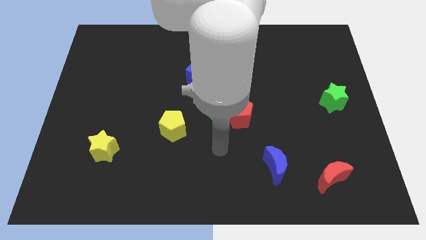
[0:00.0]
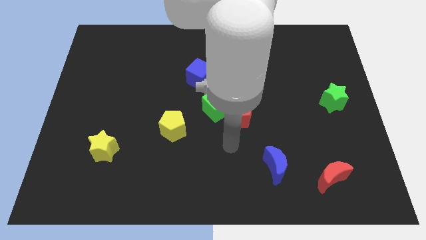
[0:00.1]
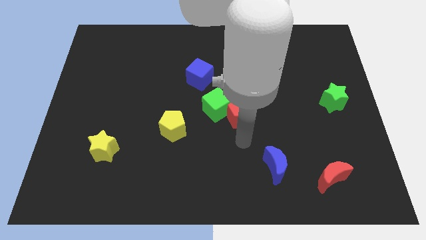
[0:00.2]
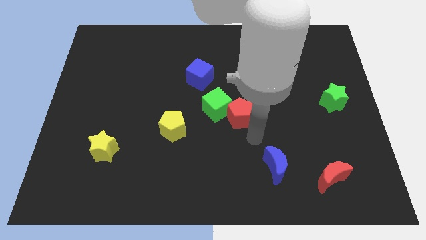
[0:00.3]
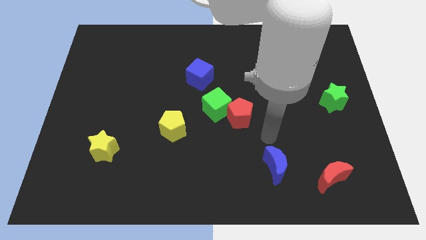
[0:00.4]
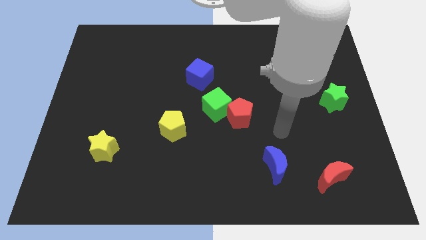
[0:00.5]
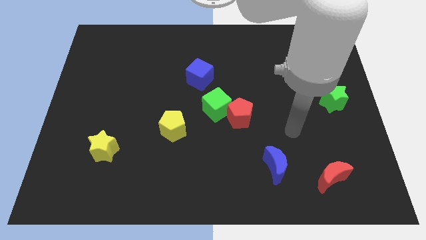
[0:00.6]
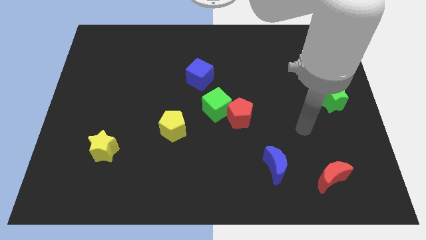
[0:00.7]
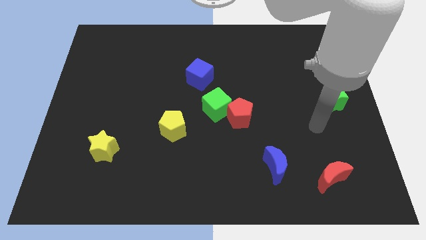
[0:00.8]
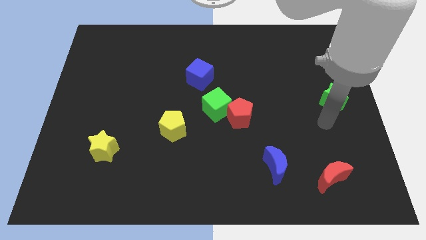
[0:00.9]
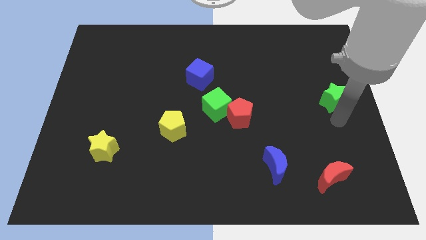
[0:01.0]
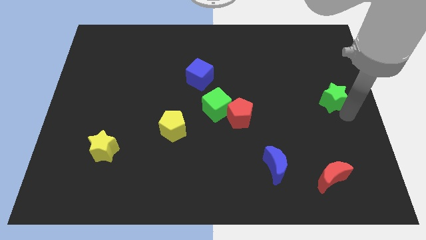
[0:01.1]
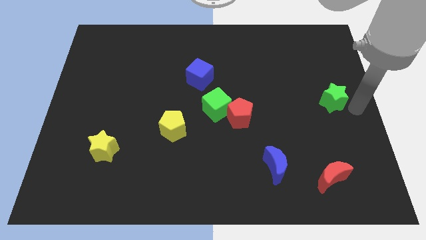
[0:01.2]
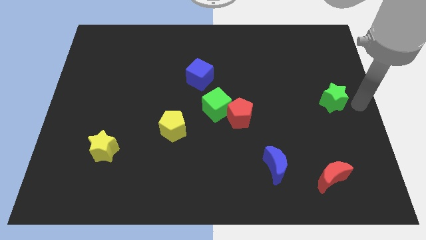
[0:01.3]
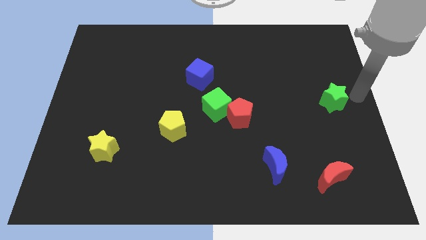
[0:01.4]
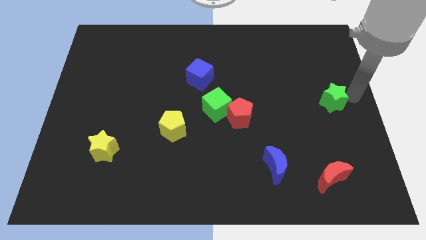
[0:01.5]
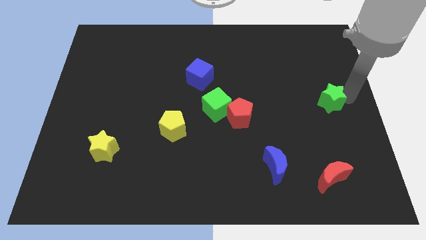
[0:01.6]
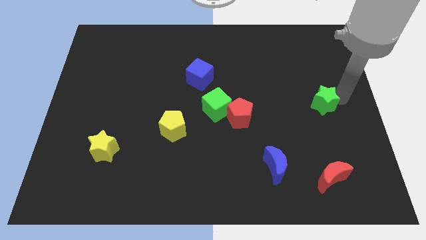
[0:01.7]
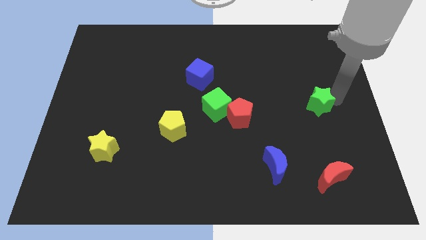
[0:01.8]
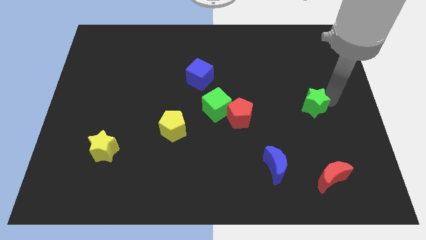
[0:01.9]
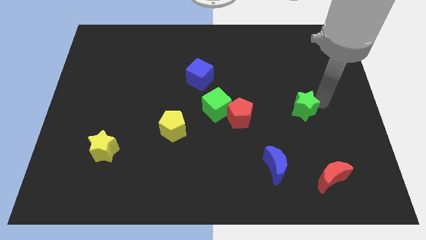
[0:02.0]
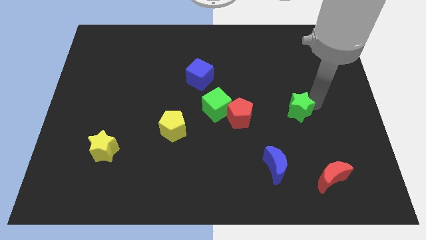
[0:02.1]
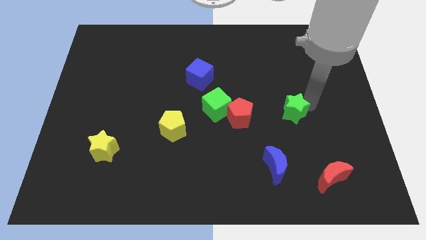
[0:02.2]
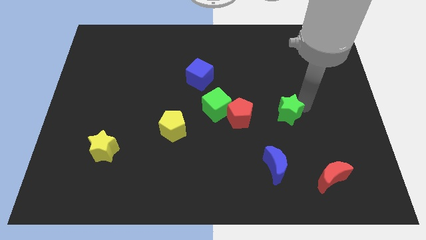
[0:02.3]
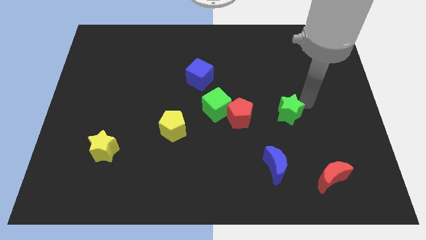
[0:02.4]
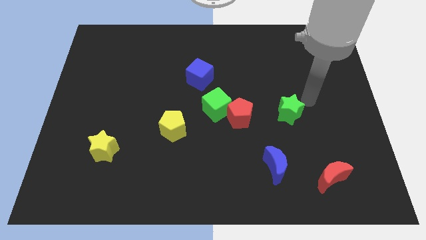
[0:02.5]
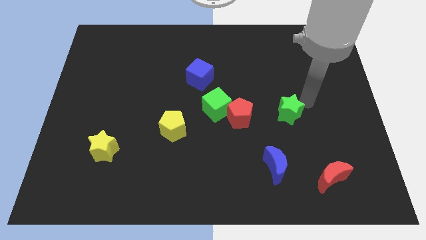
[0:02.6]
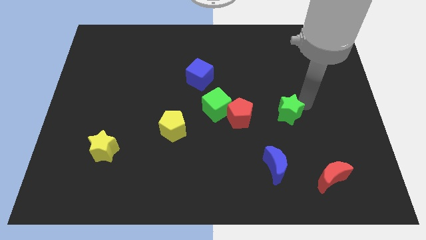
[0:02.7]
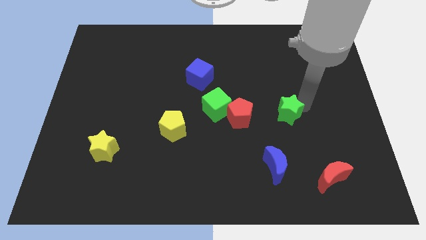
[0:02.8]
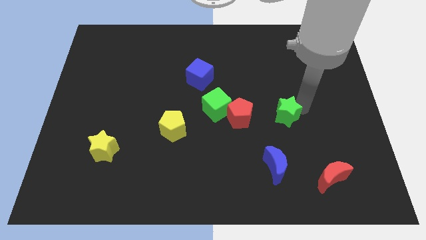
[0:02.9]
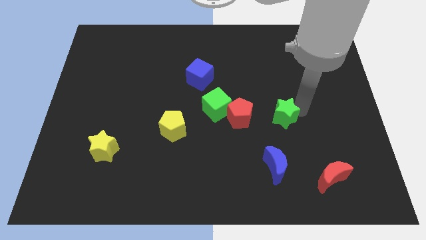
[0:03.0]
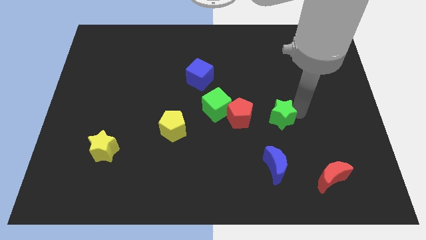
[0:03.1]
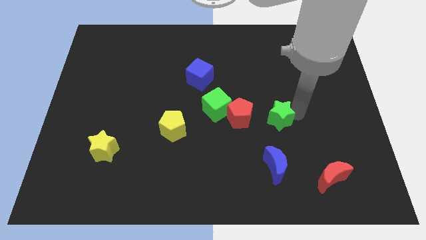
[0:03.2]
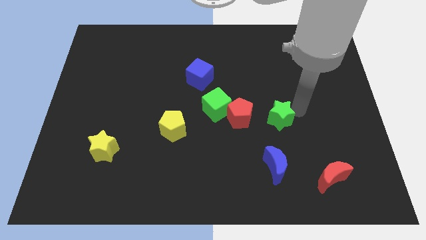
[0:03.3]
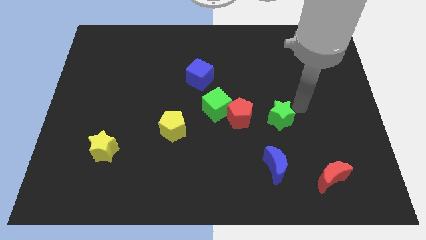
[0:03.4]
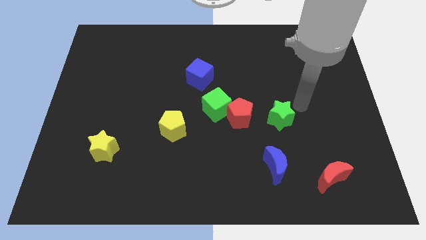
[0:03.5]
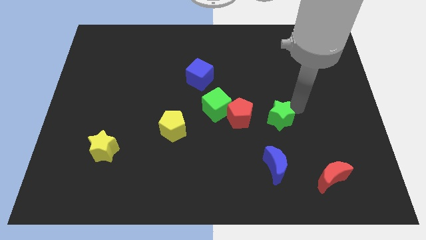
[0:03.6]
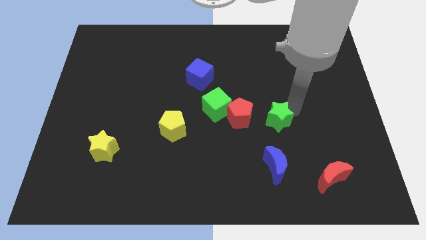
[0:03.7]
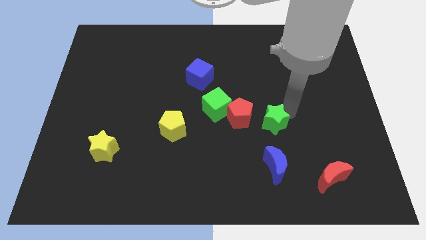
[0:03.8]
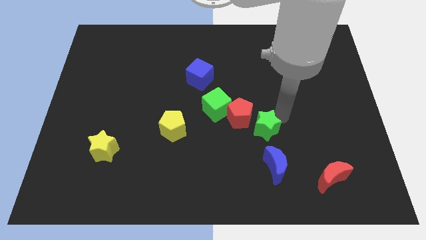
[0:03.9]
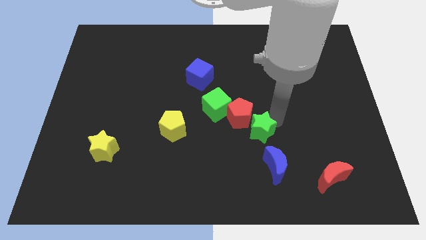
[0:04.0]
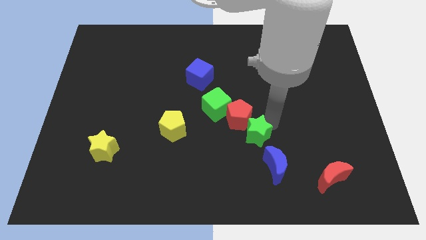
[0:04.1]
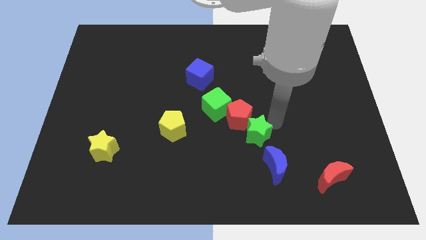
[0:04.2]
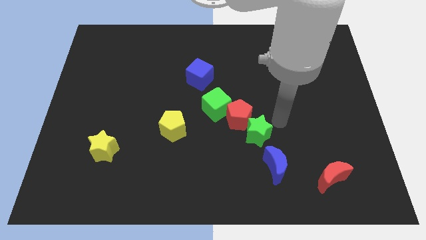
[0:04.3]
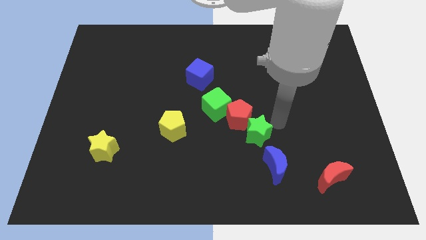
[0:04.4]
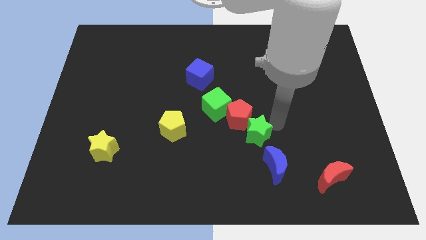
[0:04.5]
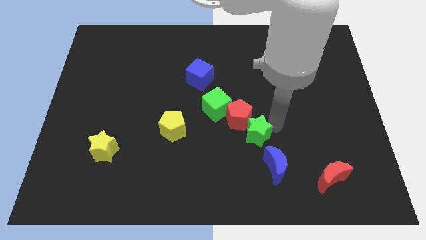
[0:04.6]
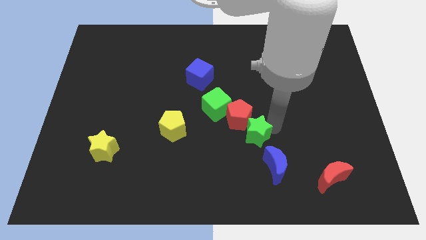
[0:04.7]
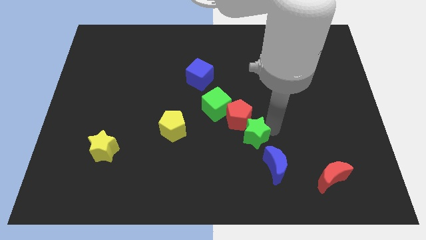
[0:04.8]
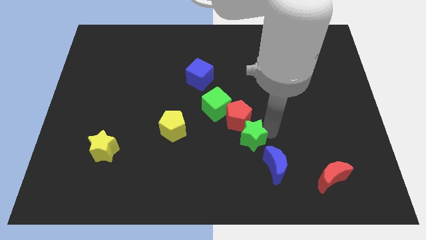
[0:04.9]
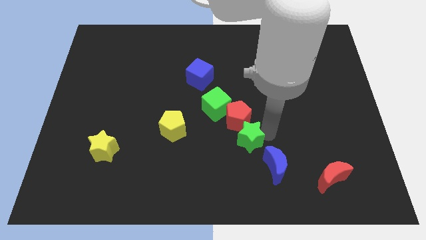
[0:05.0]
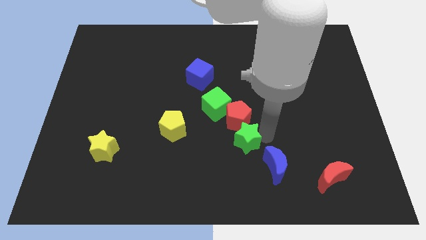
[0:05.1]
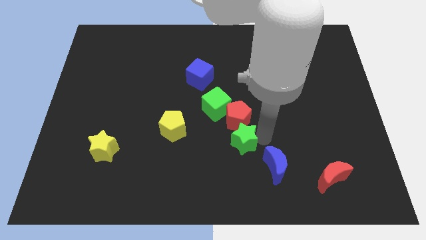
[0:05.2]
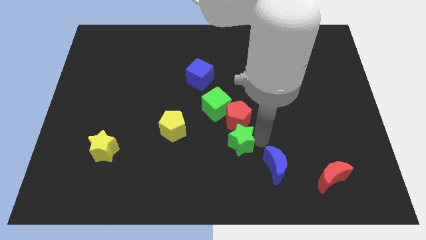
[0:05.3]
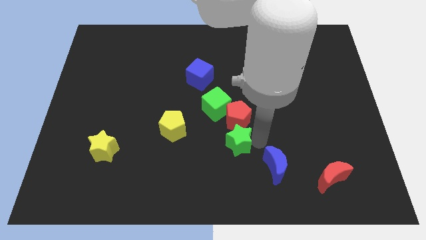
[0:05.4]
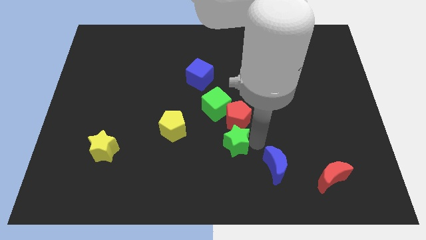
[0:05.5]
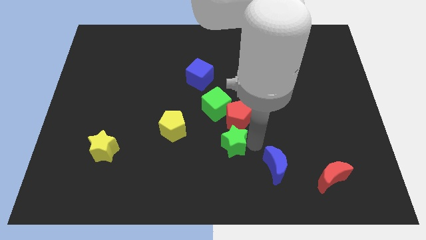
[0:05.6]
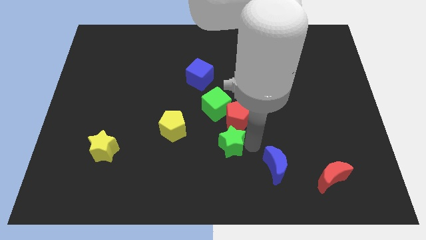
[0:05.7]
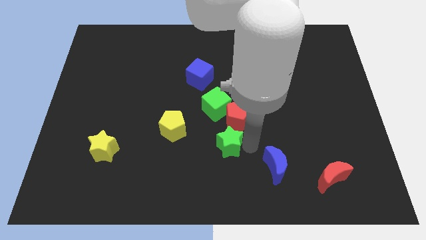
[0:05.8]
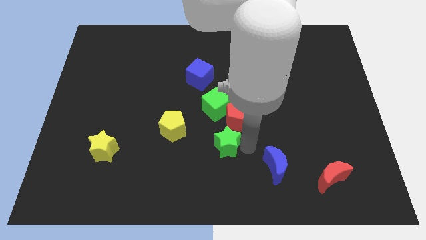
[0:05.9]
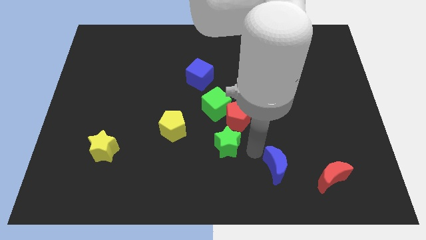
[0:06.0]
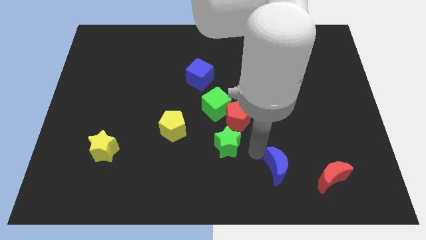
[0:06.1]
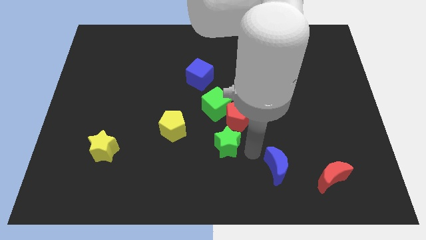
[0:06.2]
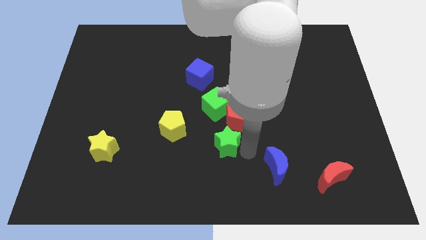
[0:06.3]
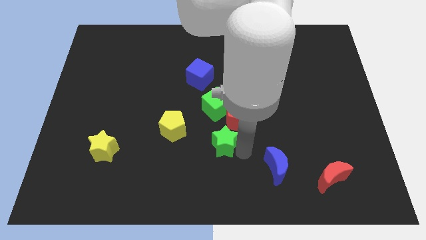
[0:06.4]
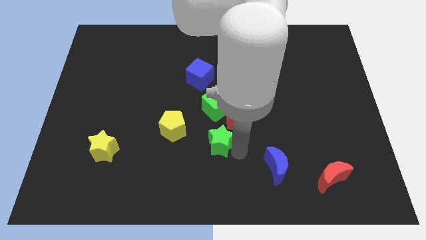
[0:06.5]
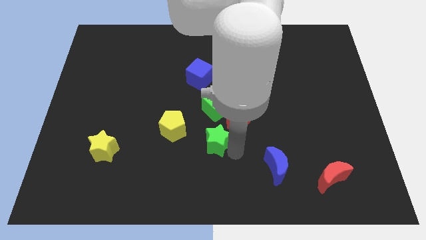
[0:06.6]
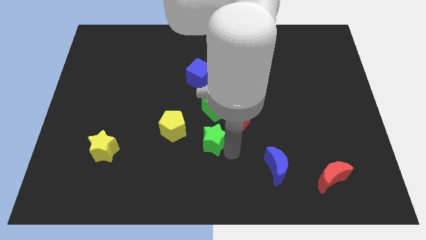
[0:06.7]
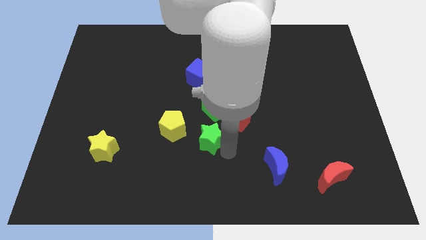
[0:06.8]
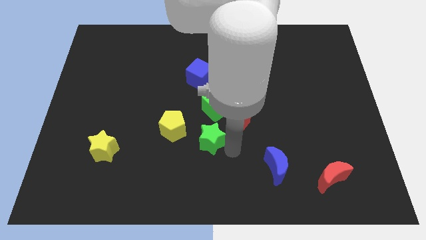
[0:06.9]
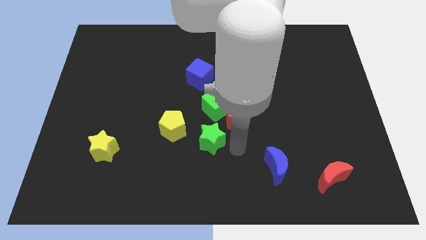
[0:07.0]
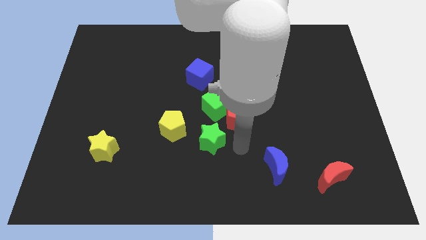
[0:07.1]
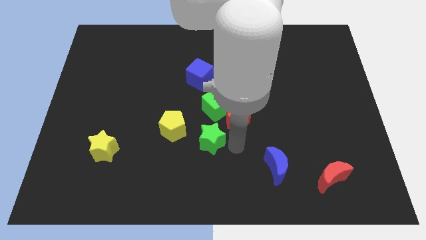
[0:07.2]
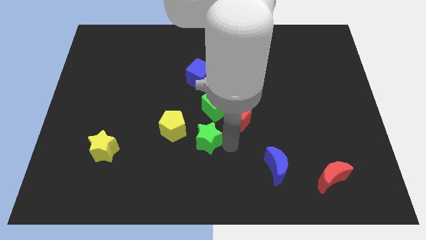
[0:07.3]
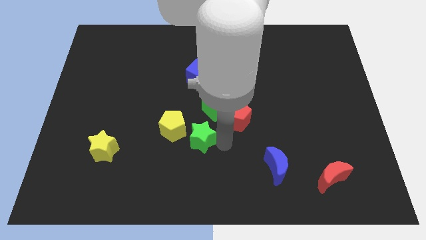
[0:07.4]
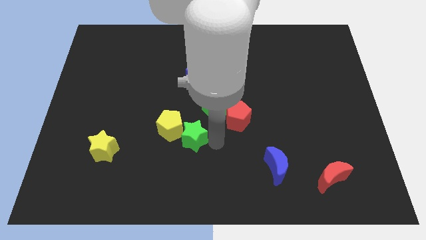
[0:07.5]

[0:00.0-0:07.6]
move the green star next to the yellow pentagon
